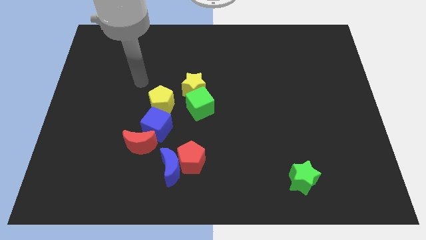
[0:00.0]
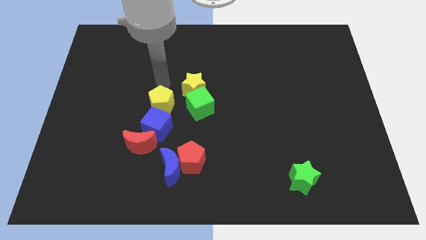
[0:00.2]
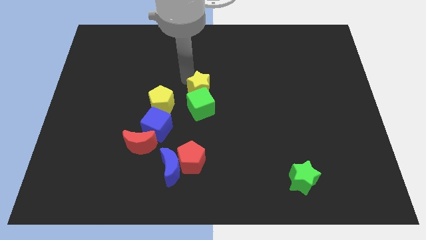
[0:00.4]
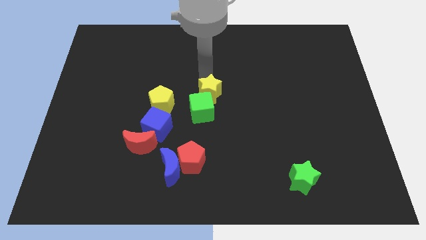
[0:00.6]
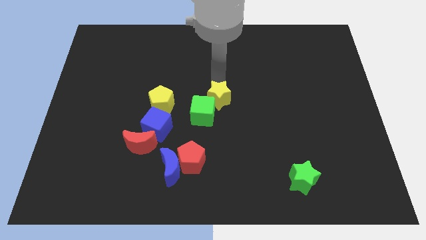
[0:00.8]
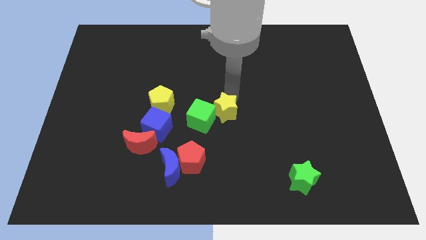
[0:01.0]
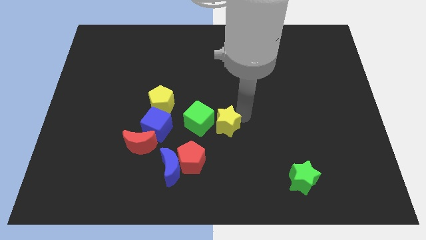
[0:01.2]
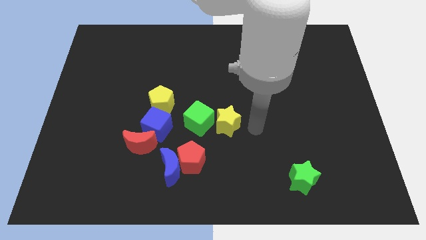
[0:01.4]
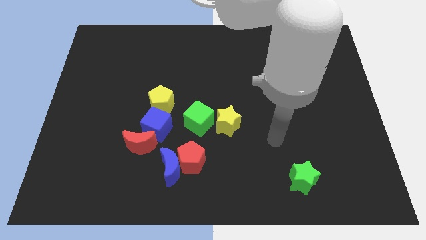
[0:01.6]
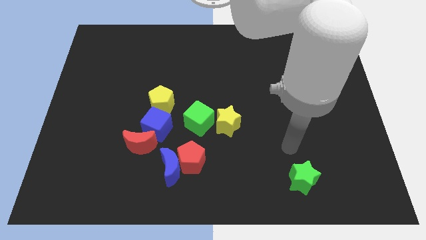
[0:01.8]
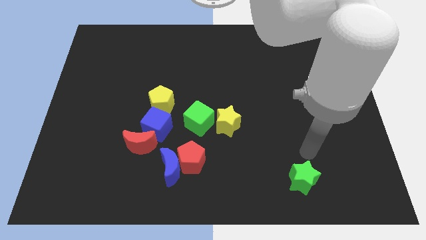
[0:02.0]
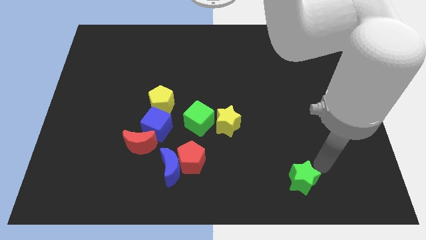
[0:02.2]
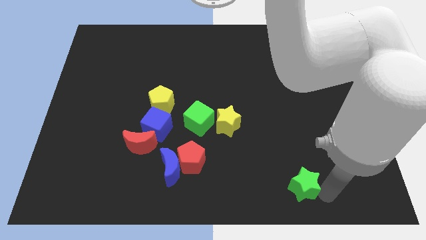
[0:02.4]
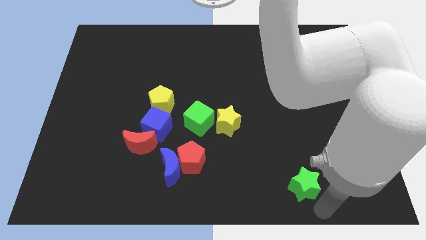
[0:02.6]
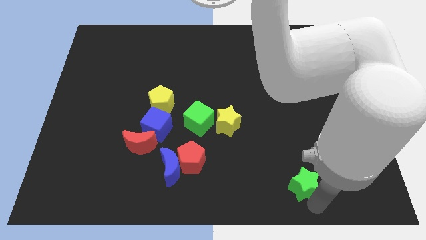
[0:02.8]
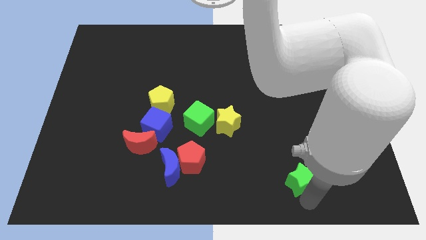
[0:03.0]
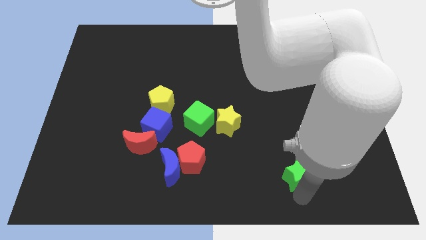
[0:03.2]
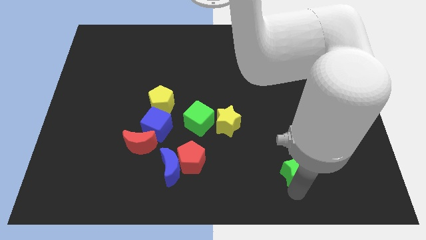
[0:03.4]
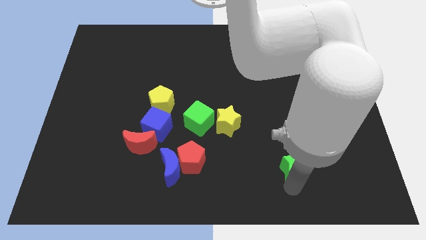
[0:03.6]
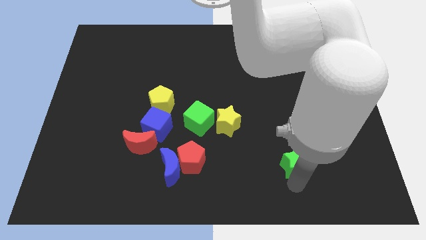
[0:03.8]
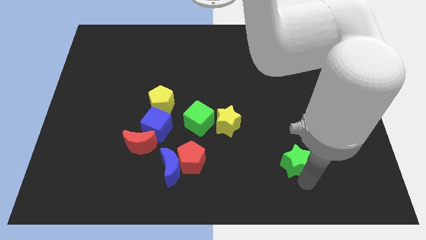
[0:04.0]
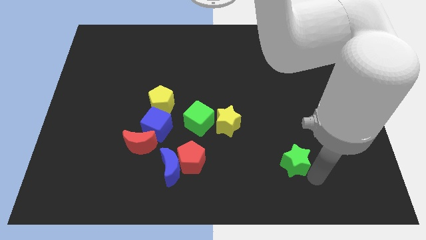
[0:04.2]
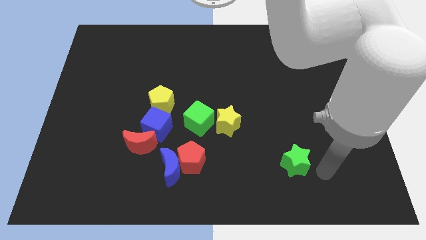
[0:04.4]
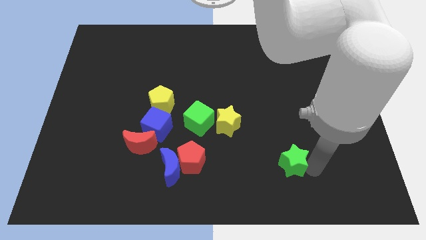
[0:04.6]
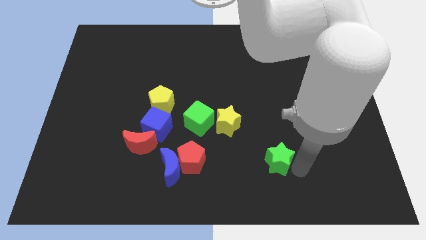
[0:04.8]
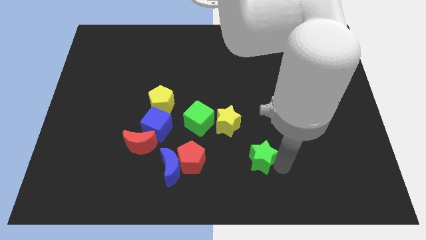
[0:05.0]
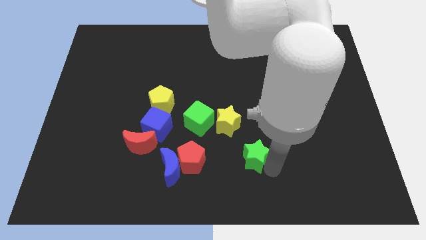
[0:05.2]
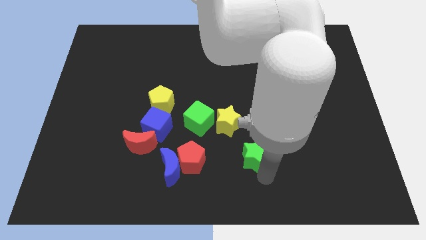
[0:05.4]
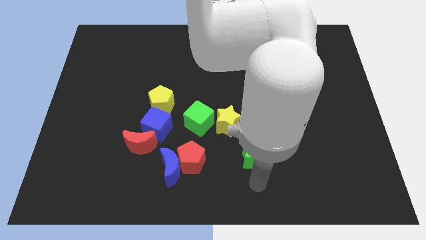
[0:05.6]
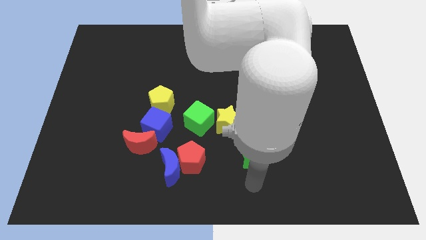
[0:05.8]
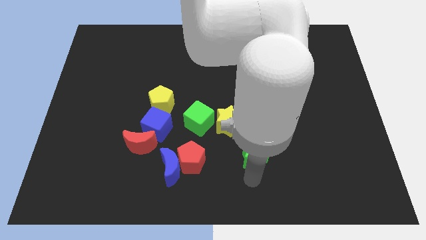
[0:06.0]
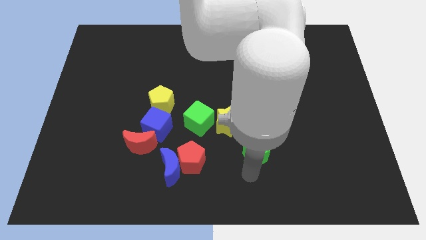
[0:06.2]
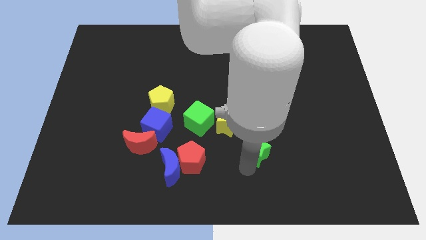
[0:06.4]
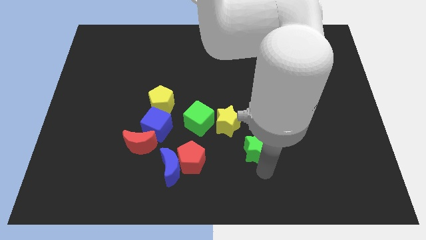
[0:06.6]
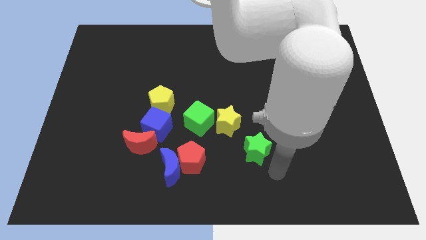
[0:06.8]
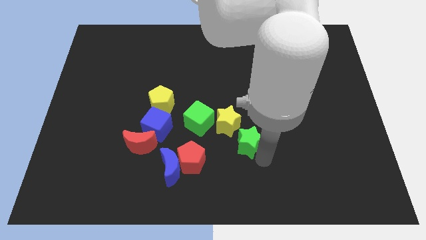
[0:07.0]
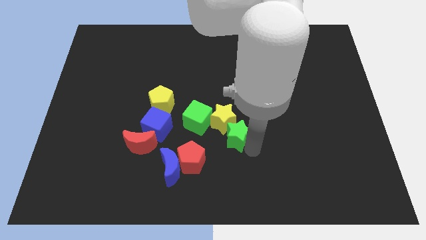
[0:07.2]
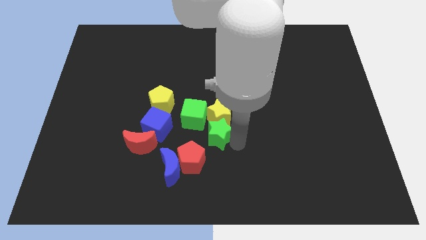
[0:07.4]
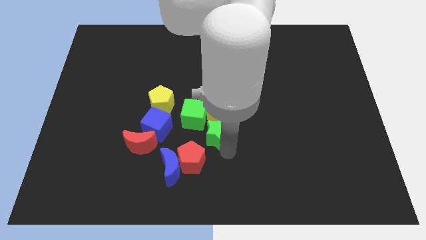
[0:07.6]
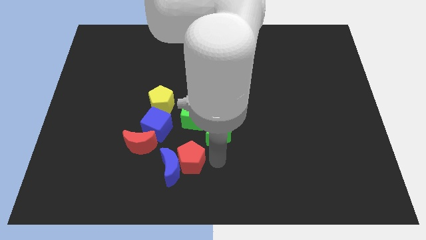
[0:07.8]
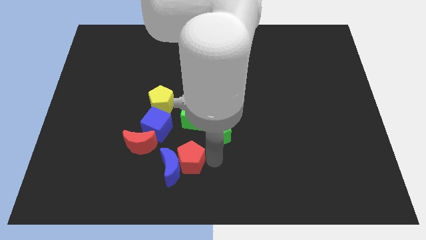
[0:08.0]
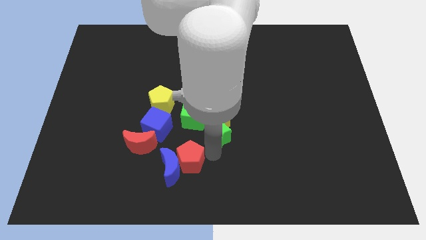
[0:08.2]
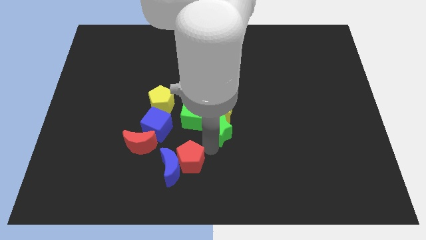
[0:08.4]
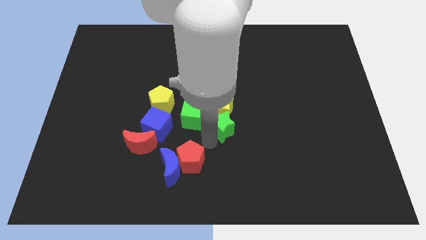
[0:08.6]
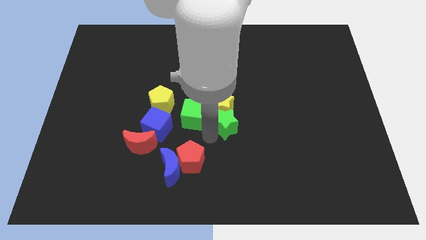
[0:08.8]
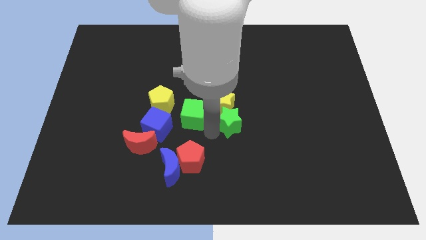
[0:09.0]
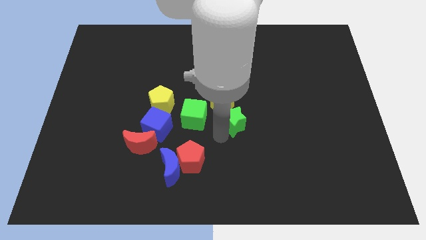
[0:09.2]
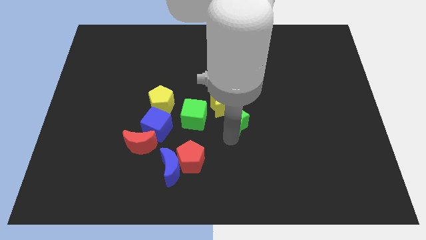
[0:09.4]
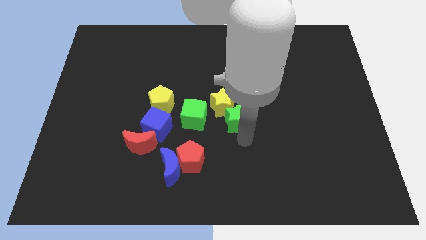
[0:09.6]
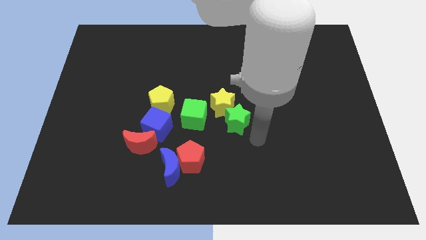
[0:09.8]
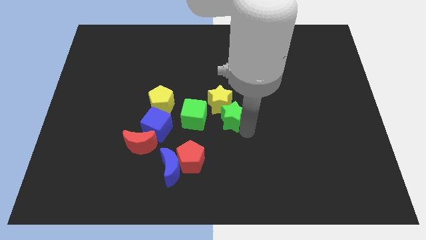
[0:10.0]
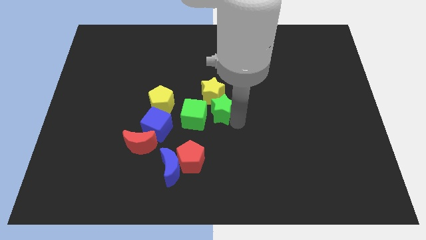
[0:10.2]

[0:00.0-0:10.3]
move the green star next to the green cube

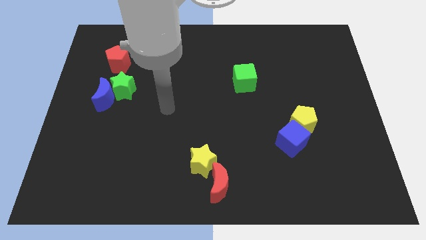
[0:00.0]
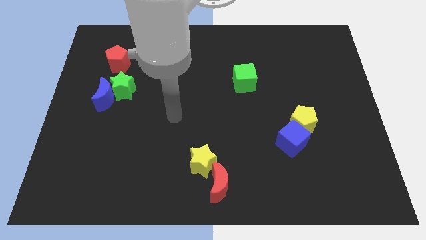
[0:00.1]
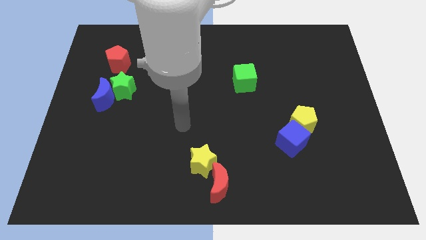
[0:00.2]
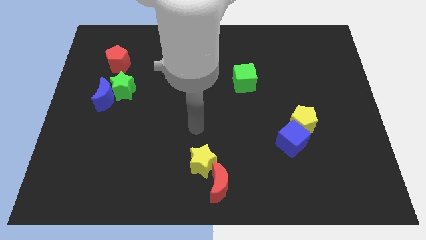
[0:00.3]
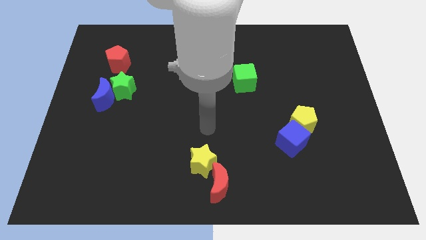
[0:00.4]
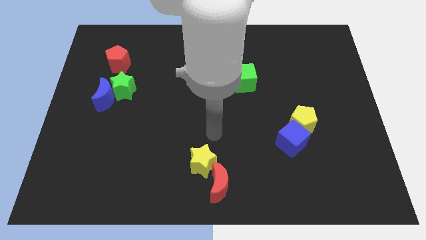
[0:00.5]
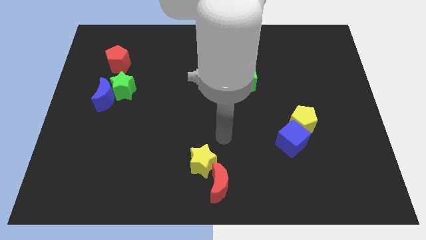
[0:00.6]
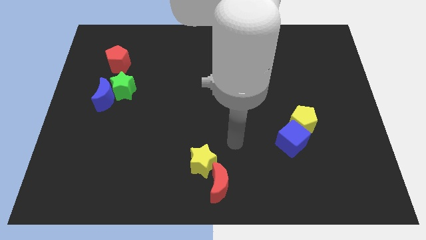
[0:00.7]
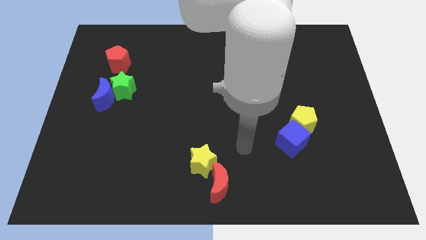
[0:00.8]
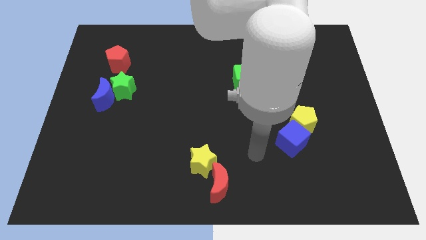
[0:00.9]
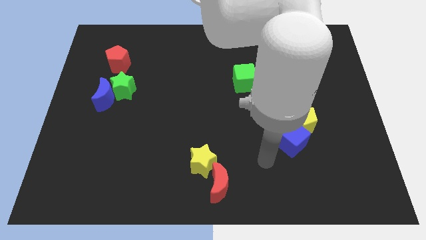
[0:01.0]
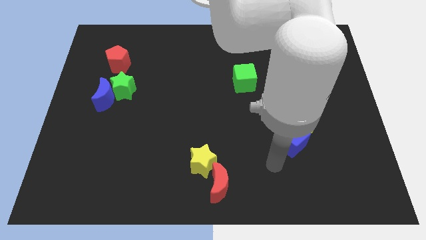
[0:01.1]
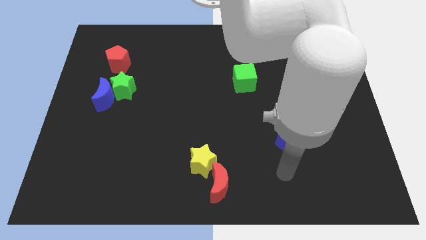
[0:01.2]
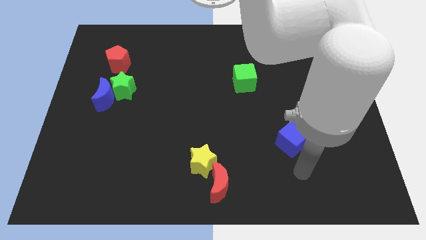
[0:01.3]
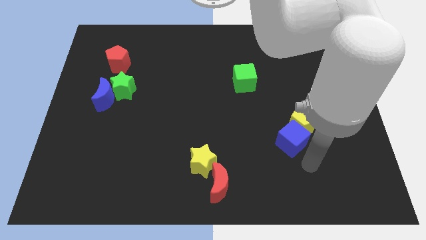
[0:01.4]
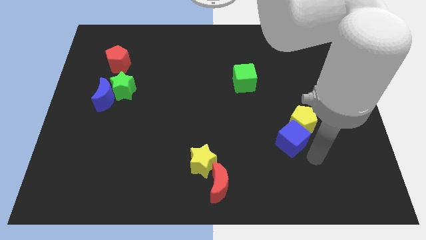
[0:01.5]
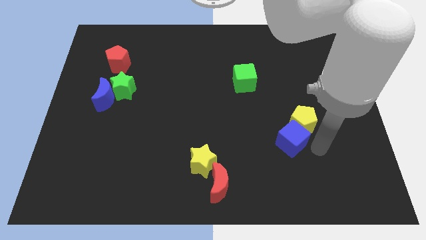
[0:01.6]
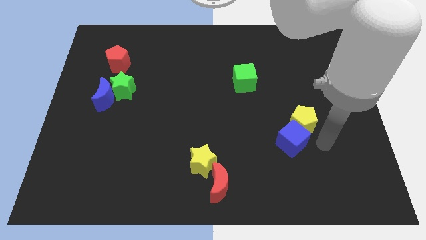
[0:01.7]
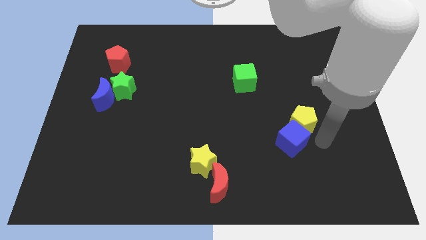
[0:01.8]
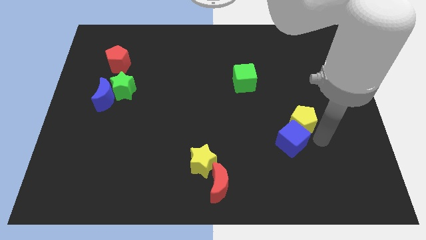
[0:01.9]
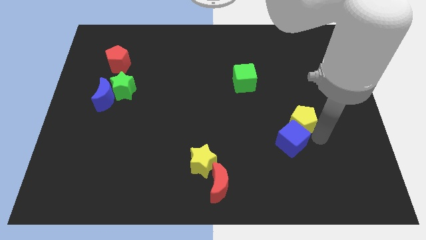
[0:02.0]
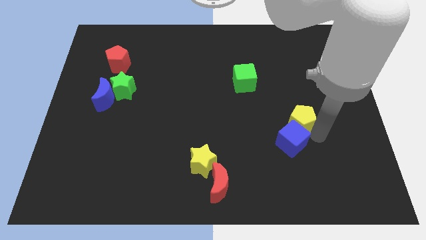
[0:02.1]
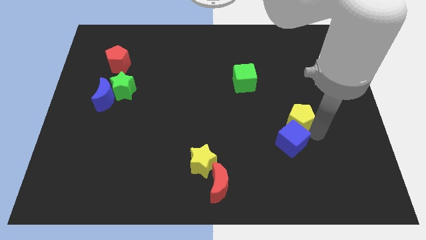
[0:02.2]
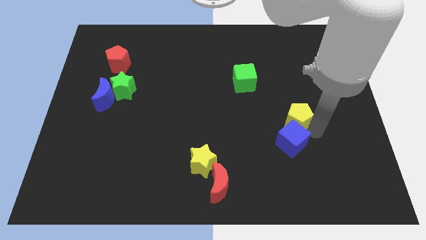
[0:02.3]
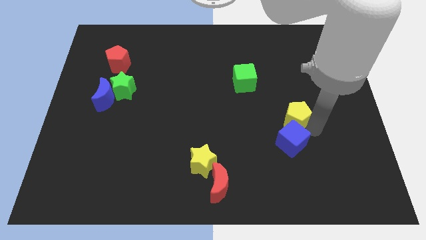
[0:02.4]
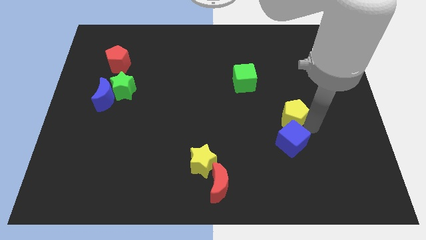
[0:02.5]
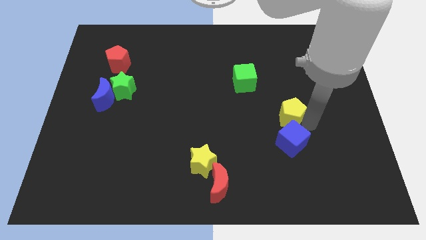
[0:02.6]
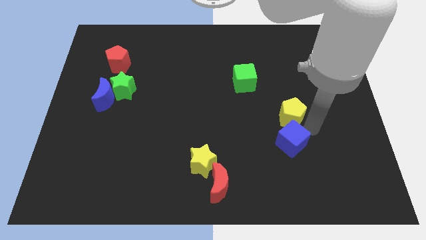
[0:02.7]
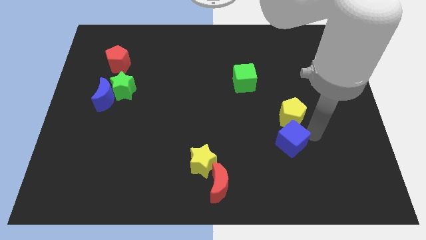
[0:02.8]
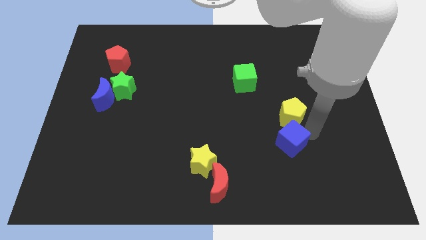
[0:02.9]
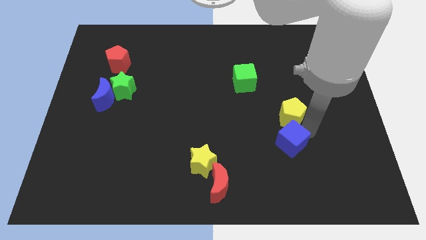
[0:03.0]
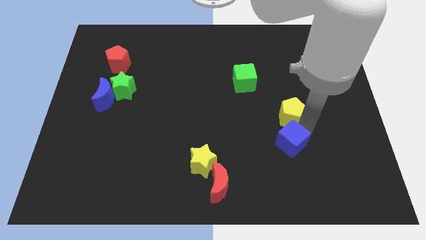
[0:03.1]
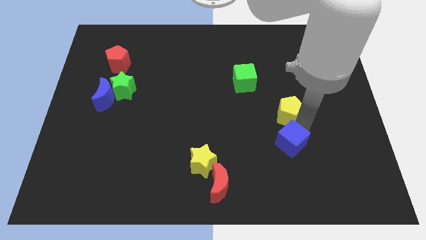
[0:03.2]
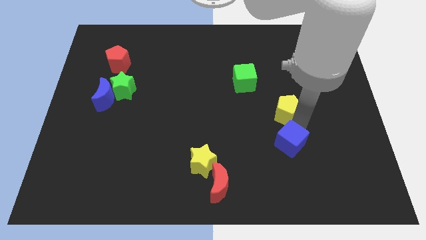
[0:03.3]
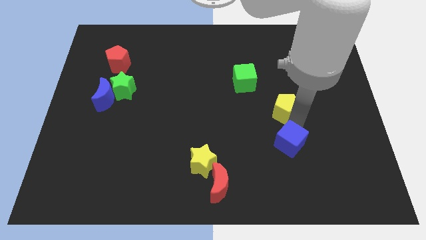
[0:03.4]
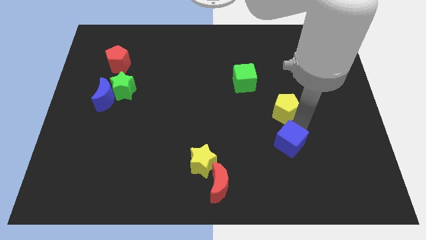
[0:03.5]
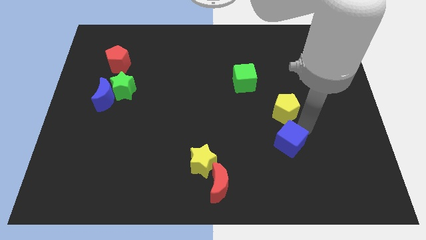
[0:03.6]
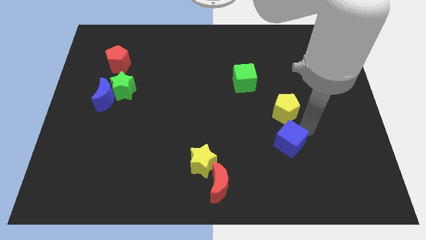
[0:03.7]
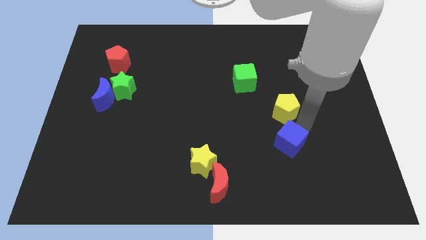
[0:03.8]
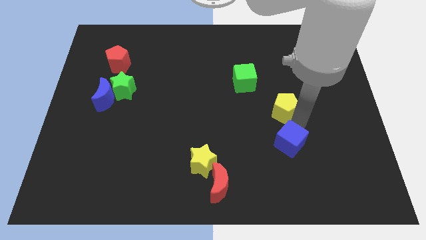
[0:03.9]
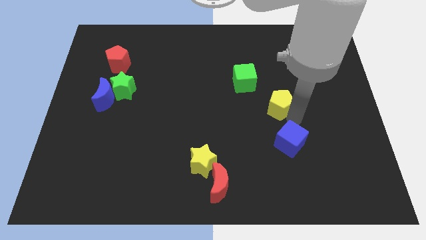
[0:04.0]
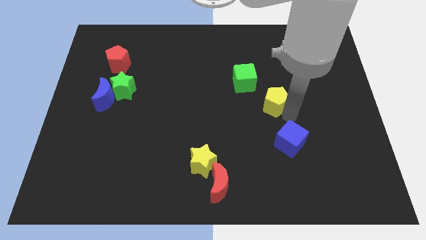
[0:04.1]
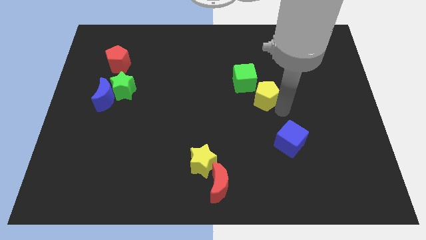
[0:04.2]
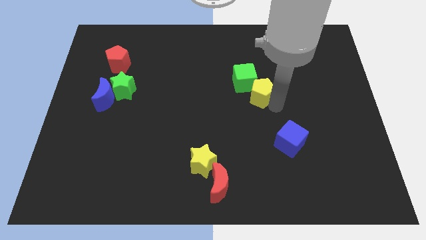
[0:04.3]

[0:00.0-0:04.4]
push the yellow pentagon next to the green cube
